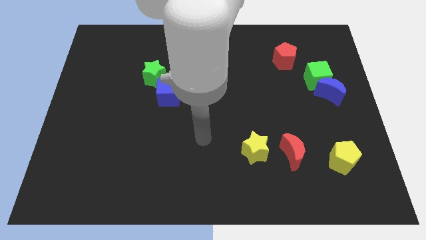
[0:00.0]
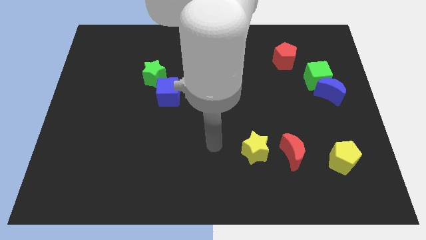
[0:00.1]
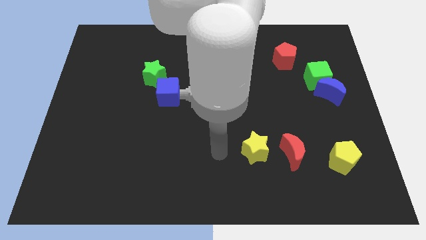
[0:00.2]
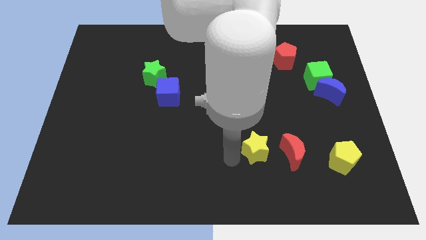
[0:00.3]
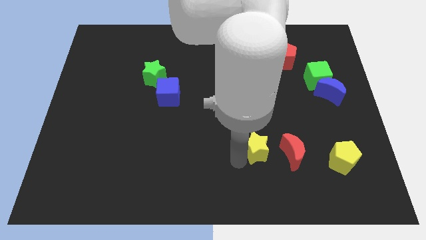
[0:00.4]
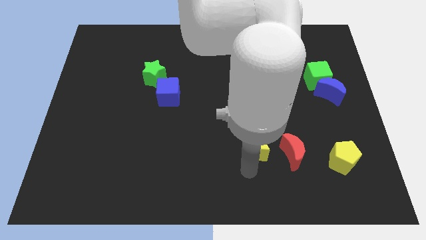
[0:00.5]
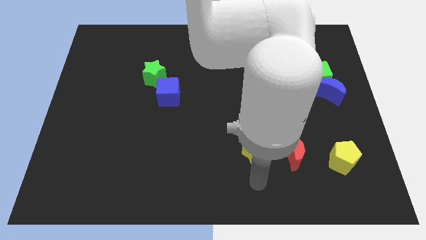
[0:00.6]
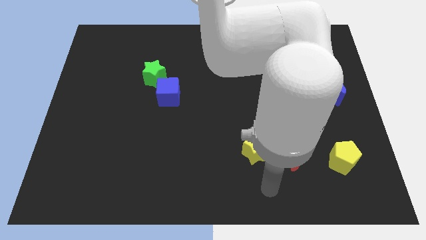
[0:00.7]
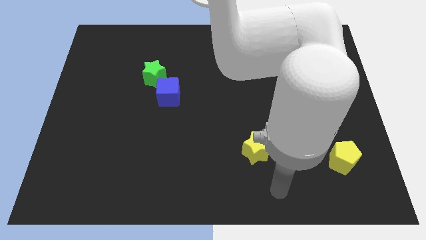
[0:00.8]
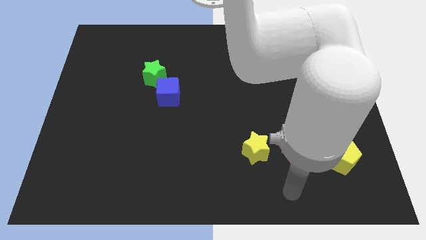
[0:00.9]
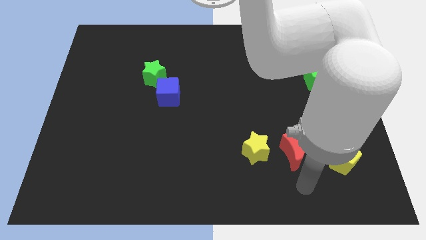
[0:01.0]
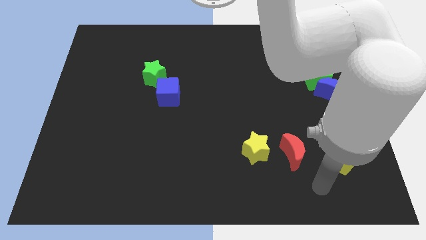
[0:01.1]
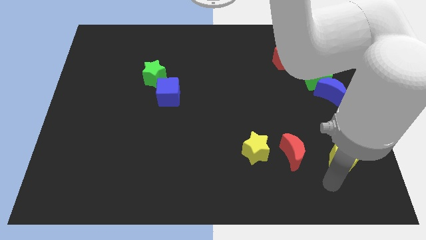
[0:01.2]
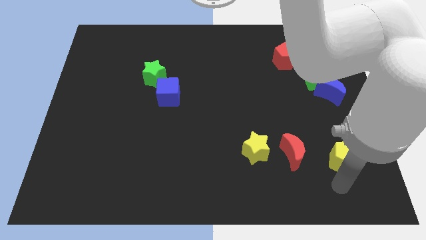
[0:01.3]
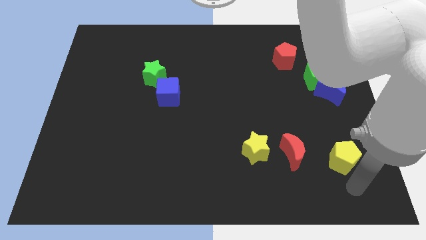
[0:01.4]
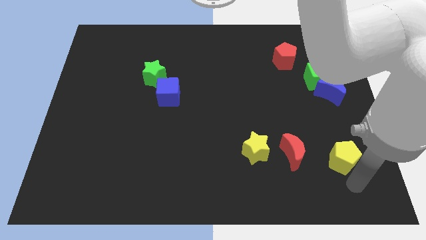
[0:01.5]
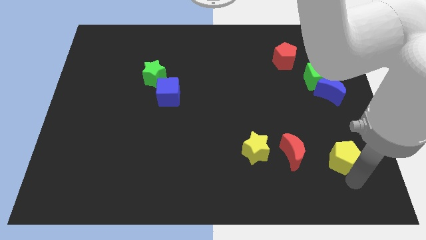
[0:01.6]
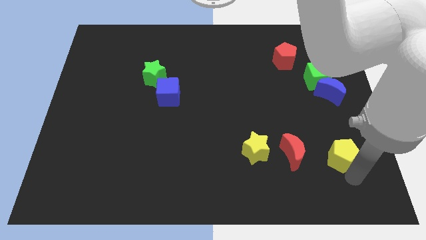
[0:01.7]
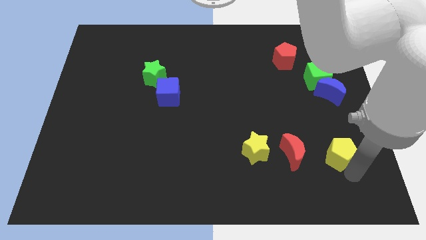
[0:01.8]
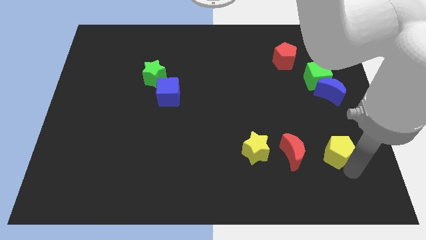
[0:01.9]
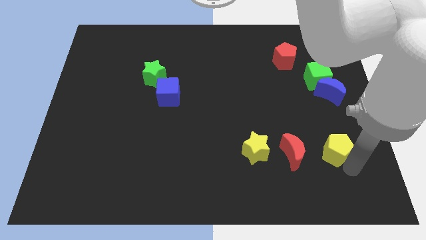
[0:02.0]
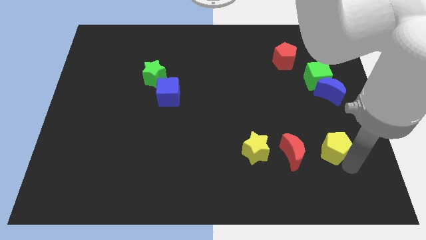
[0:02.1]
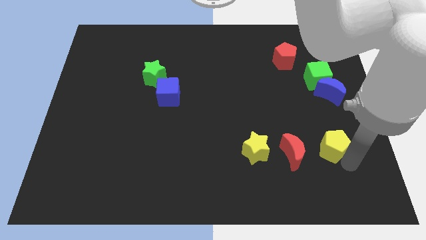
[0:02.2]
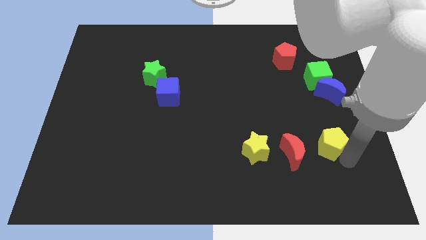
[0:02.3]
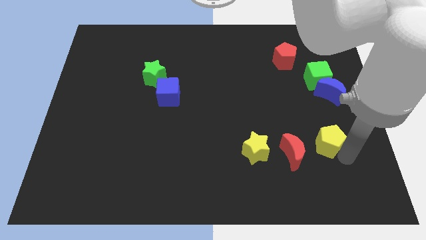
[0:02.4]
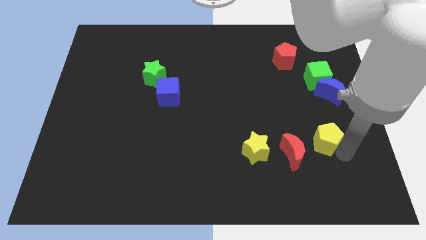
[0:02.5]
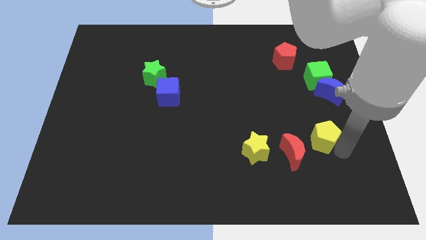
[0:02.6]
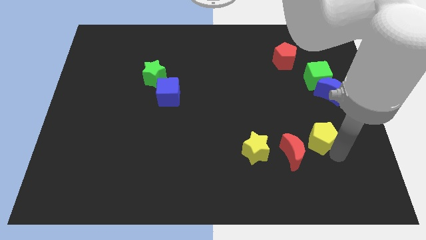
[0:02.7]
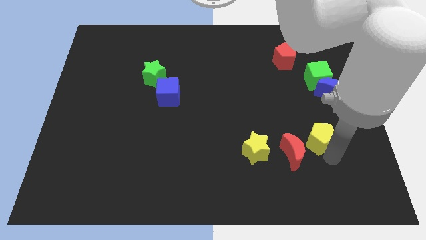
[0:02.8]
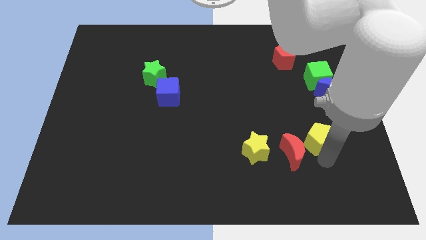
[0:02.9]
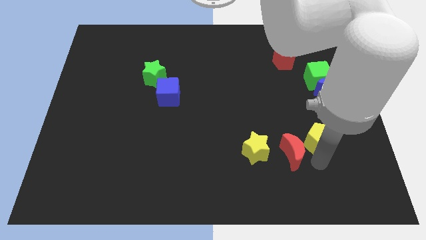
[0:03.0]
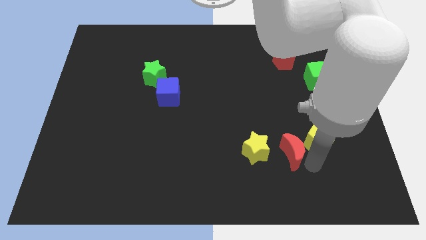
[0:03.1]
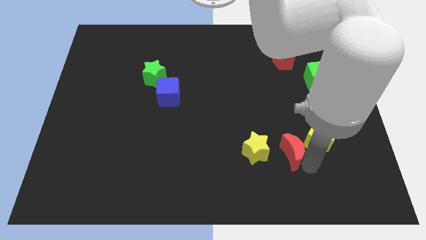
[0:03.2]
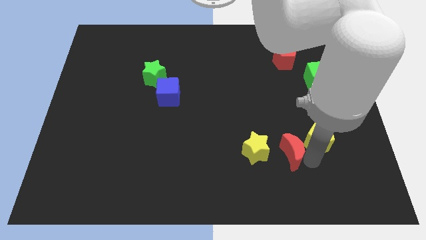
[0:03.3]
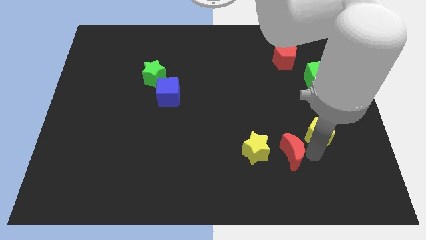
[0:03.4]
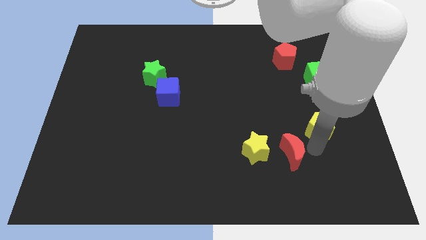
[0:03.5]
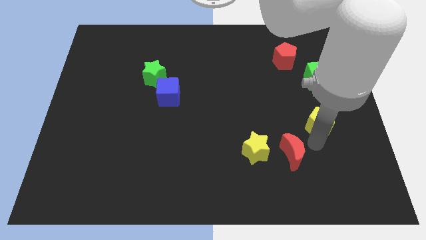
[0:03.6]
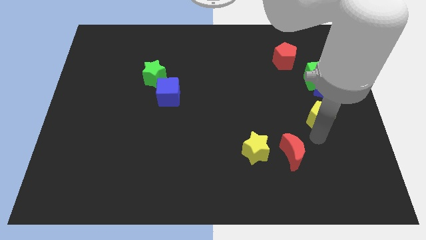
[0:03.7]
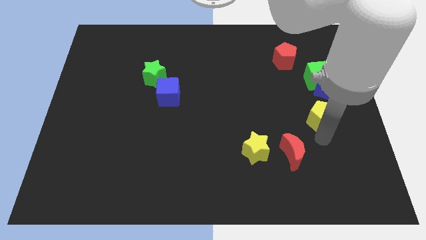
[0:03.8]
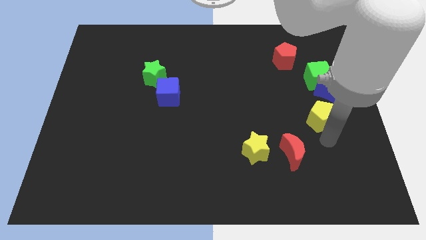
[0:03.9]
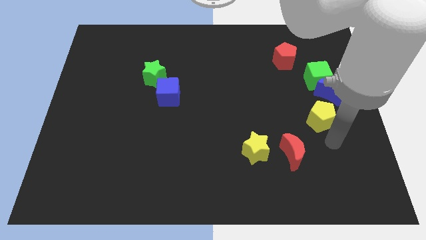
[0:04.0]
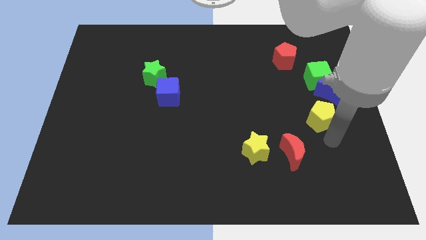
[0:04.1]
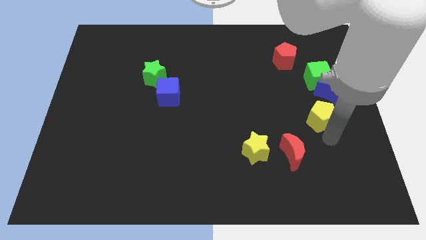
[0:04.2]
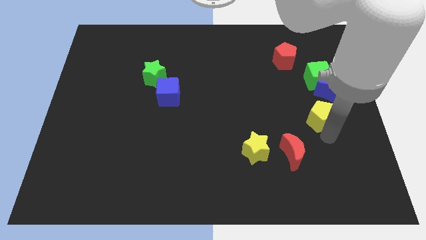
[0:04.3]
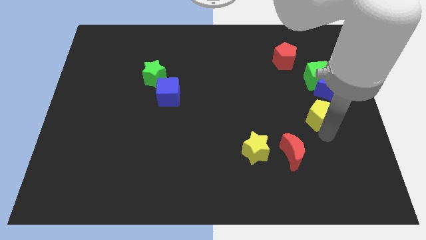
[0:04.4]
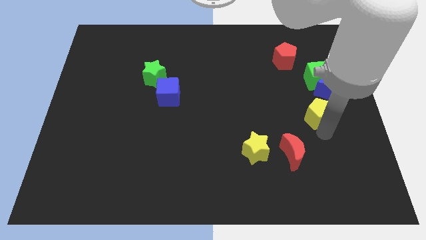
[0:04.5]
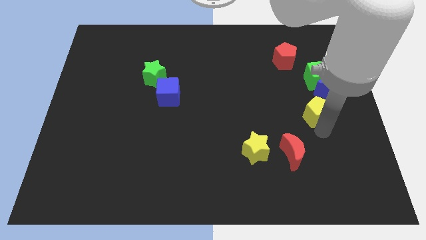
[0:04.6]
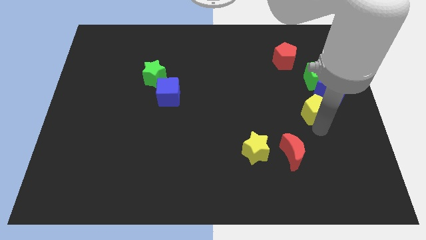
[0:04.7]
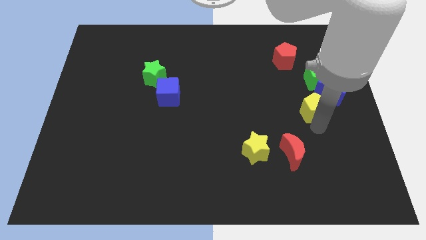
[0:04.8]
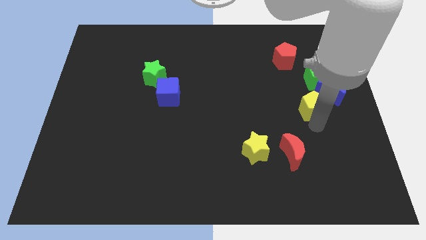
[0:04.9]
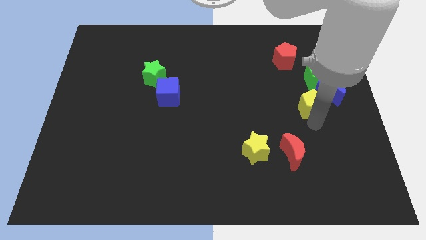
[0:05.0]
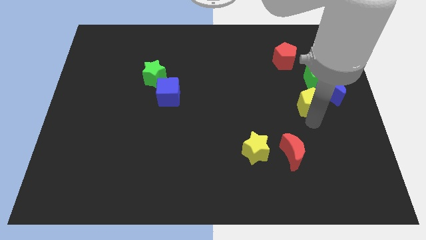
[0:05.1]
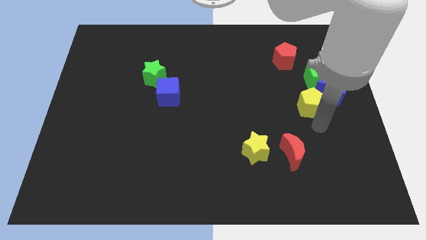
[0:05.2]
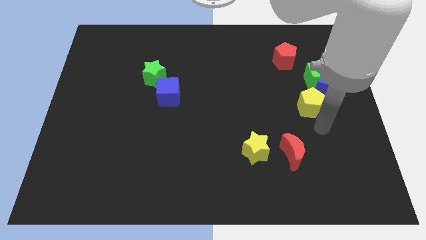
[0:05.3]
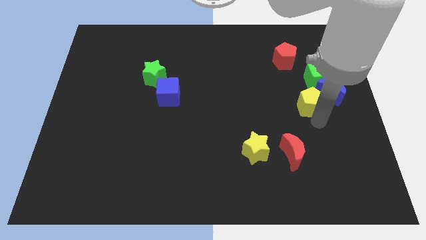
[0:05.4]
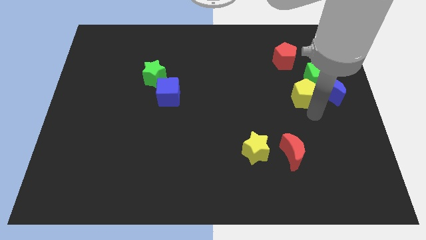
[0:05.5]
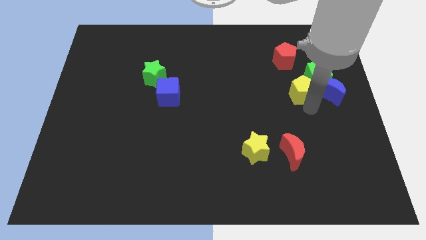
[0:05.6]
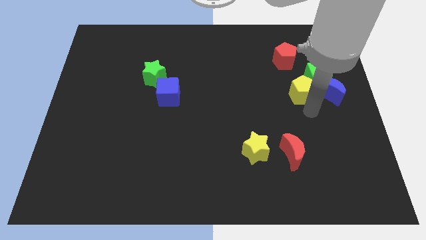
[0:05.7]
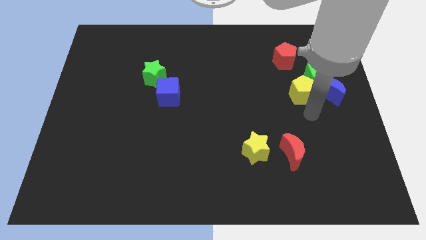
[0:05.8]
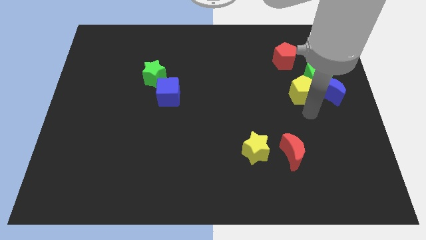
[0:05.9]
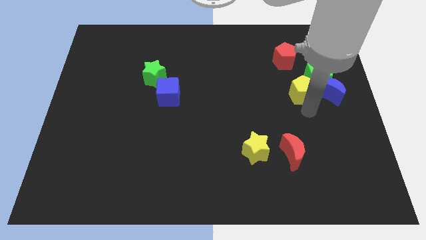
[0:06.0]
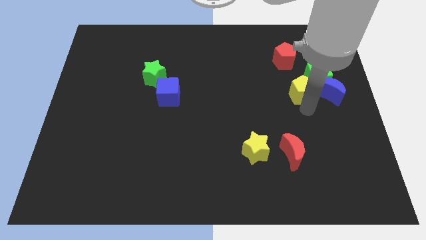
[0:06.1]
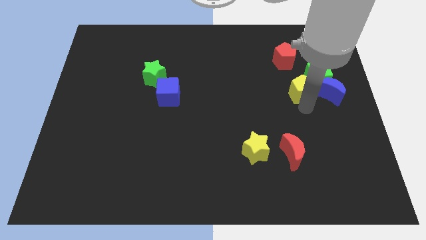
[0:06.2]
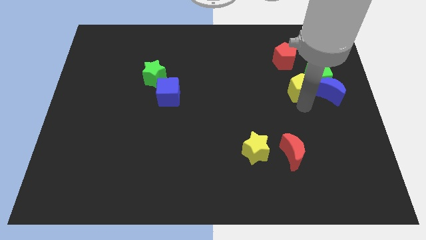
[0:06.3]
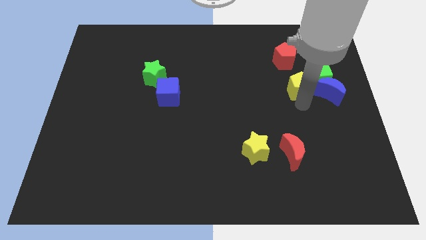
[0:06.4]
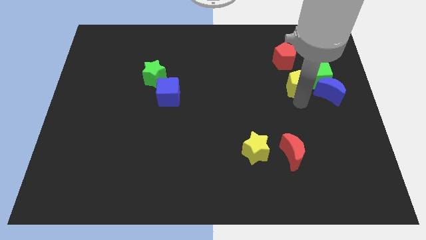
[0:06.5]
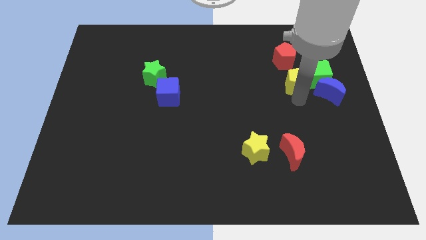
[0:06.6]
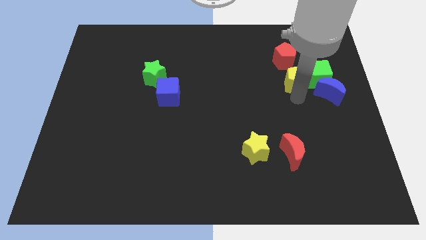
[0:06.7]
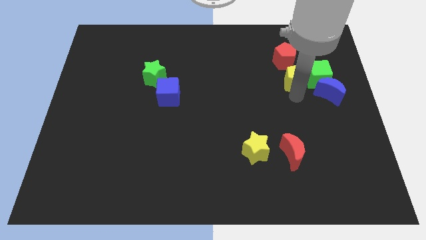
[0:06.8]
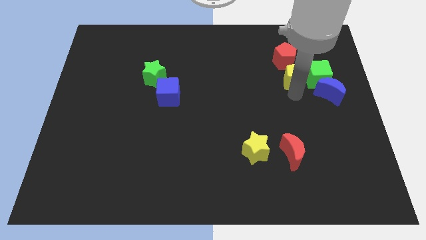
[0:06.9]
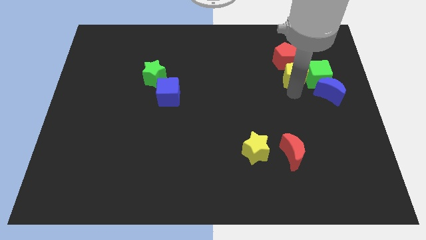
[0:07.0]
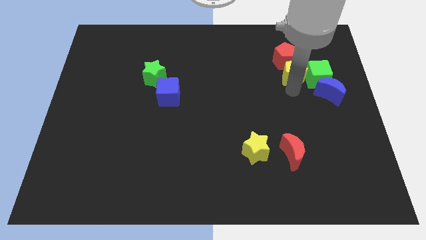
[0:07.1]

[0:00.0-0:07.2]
put the yellow pentagon close to the red pentagon
